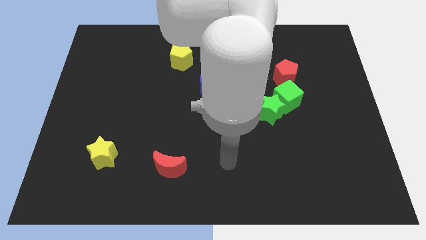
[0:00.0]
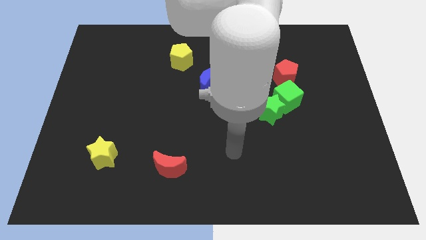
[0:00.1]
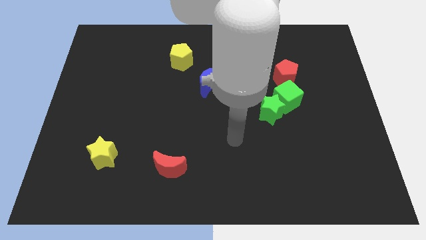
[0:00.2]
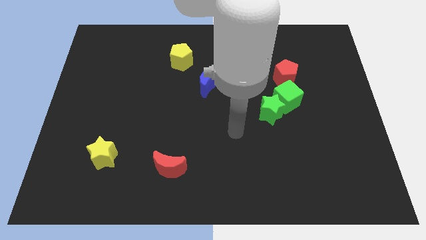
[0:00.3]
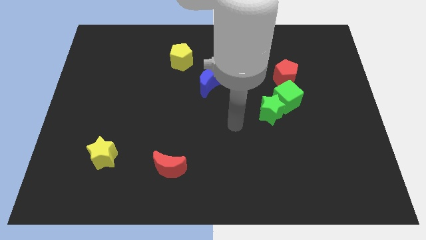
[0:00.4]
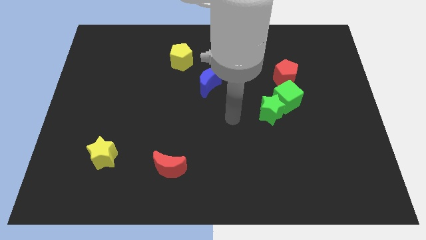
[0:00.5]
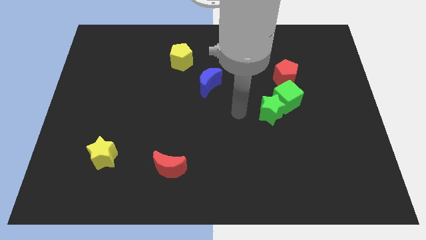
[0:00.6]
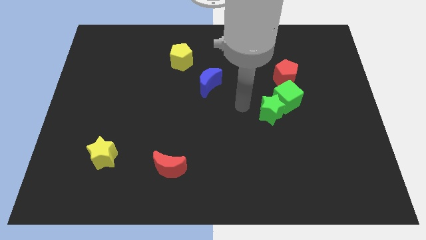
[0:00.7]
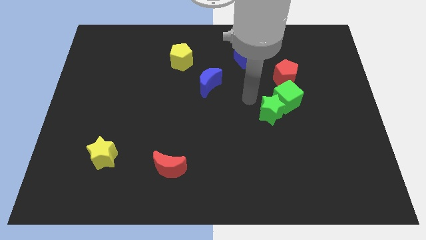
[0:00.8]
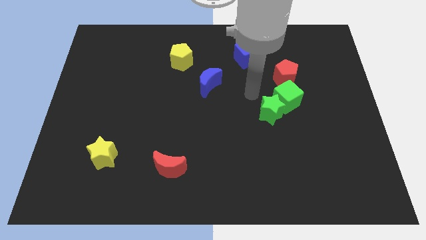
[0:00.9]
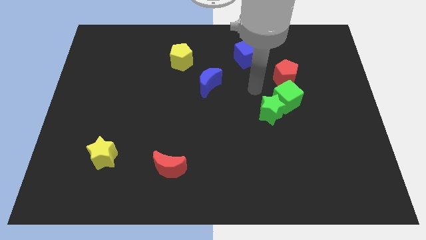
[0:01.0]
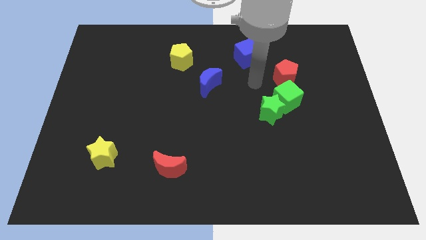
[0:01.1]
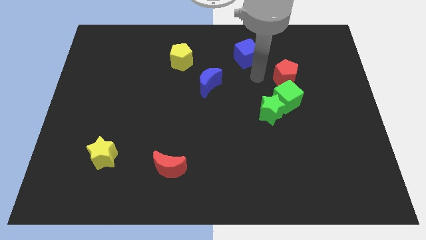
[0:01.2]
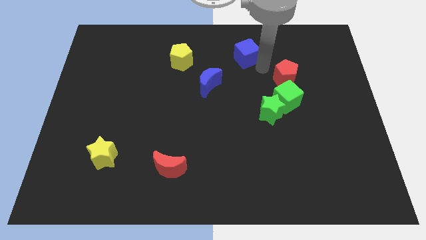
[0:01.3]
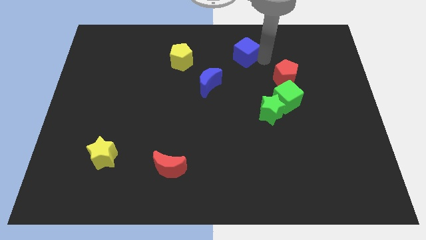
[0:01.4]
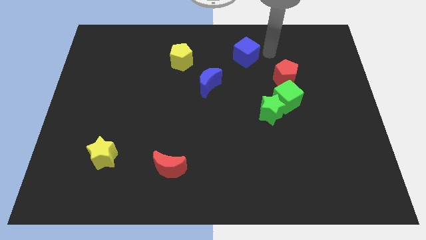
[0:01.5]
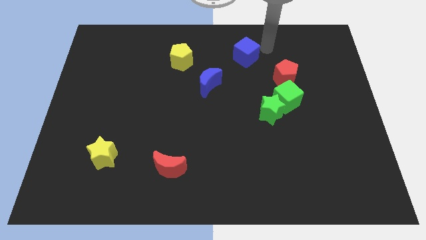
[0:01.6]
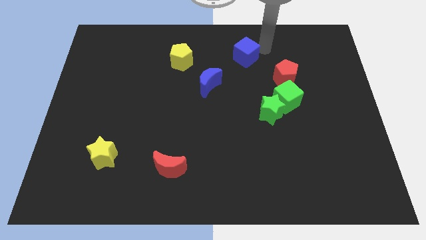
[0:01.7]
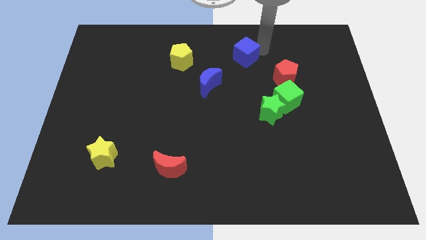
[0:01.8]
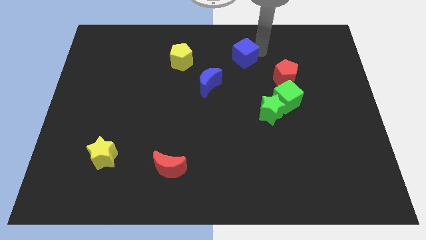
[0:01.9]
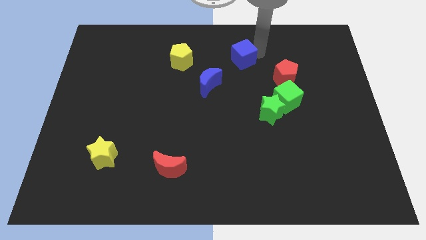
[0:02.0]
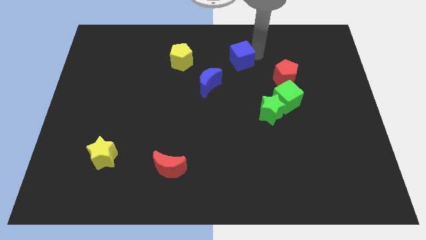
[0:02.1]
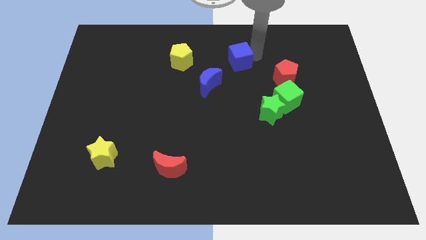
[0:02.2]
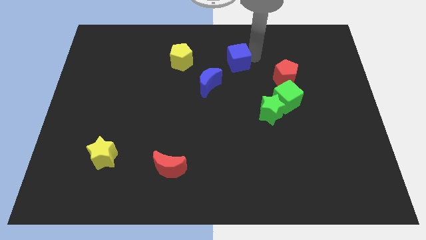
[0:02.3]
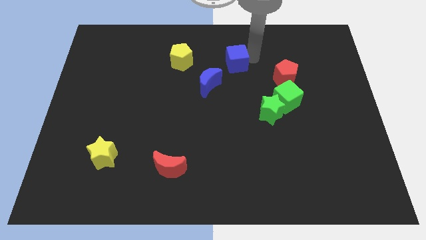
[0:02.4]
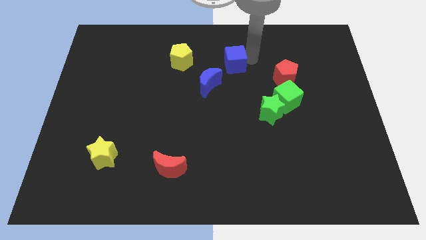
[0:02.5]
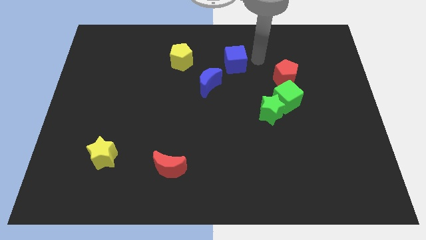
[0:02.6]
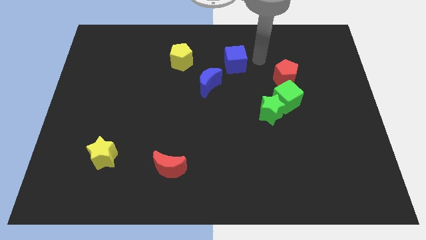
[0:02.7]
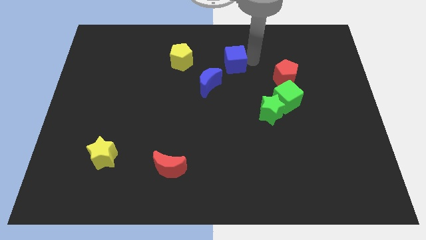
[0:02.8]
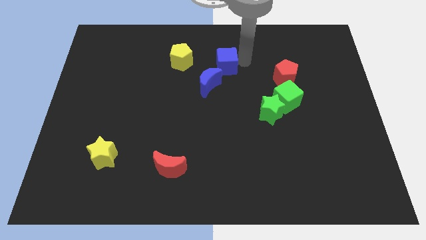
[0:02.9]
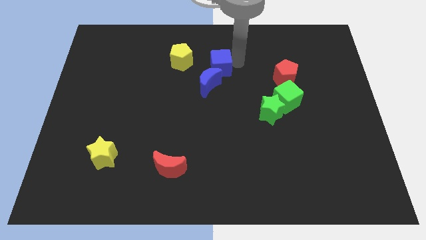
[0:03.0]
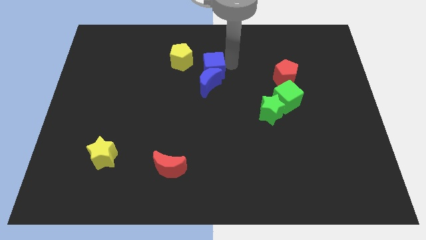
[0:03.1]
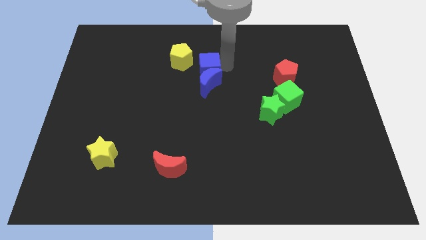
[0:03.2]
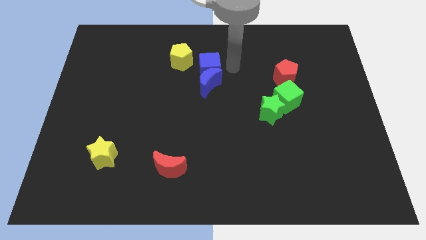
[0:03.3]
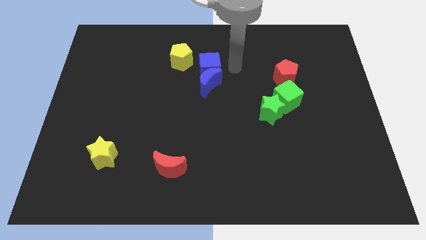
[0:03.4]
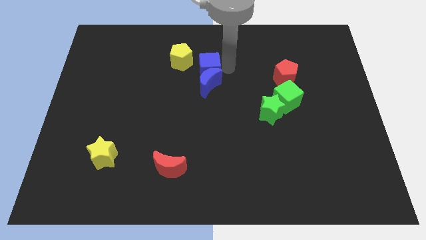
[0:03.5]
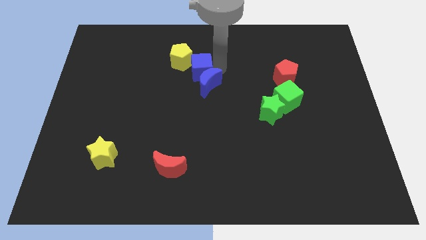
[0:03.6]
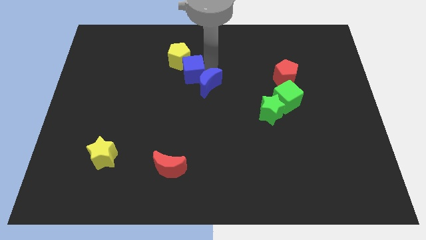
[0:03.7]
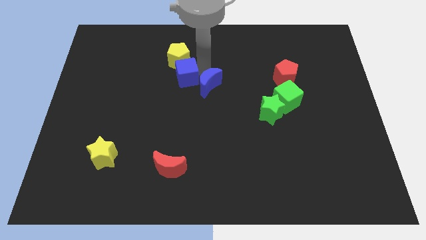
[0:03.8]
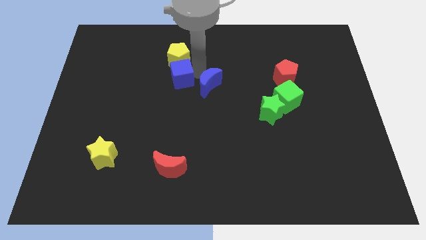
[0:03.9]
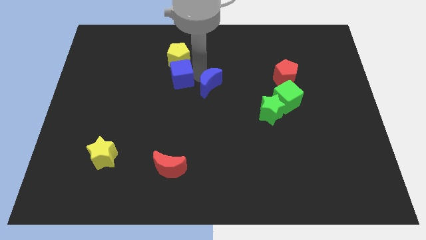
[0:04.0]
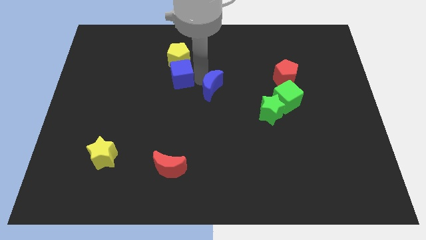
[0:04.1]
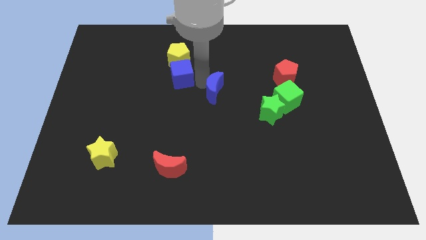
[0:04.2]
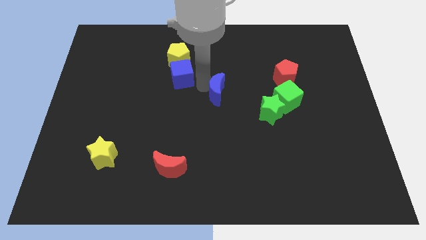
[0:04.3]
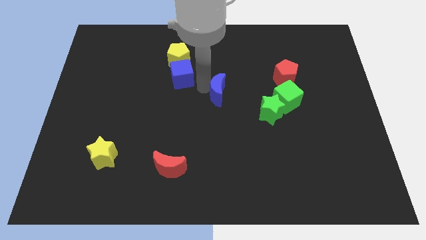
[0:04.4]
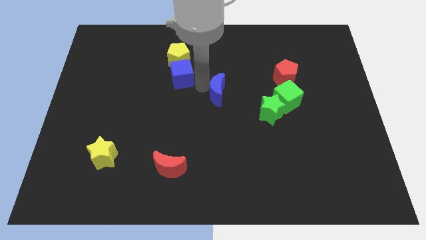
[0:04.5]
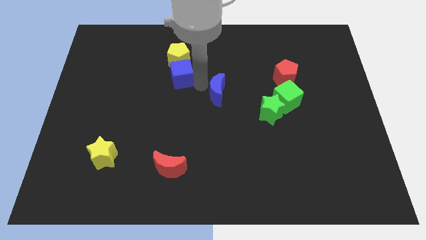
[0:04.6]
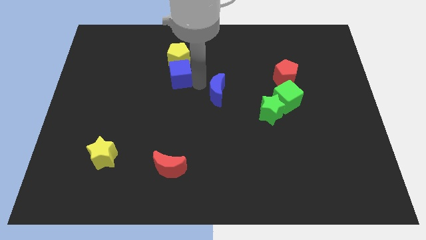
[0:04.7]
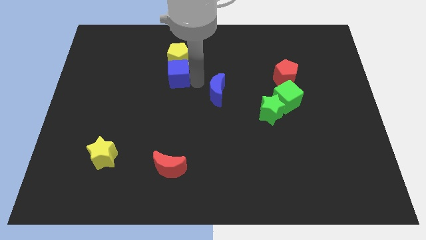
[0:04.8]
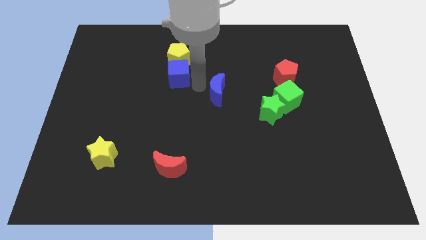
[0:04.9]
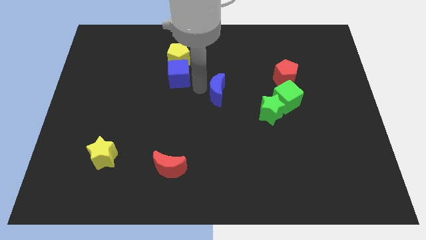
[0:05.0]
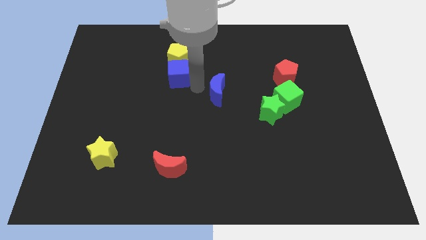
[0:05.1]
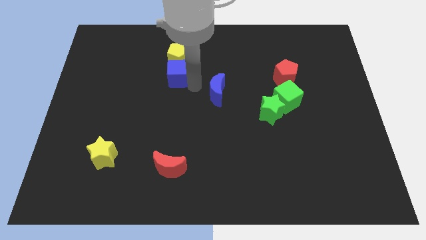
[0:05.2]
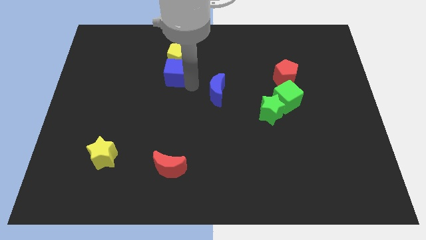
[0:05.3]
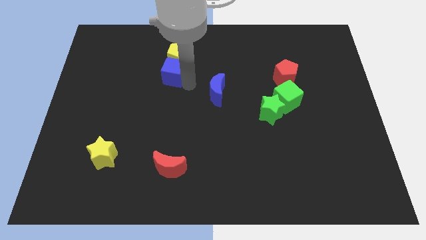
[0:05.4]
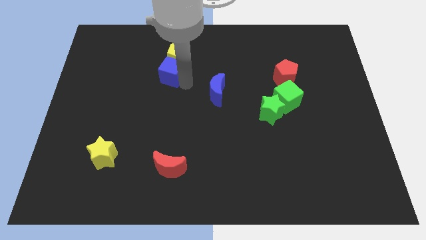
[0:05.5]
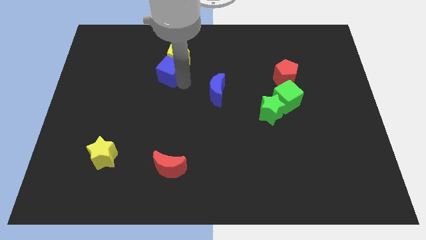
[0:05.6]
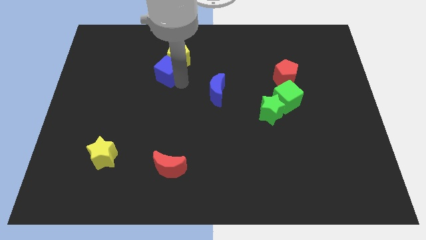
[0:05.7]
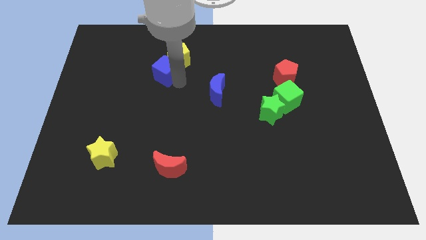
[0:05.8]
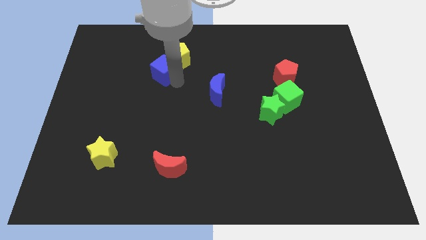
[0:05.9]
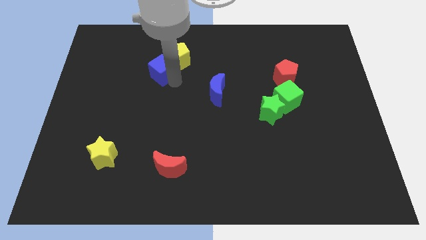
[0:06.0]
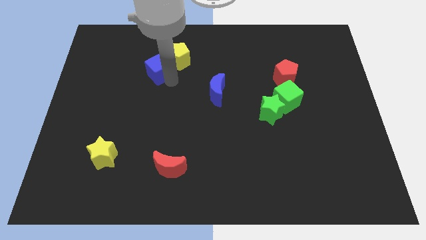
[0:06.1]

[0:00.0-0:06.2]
move the blue cube left of the yellow pentagon

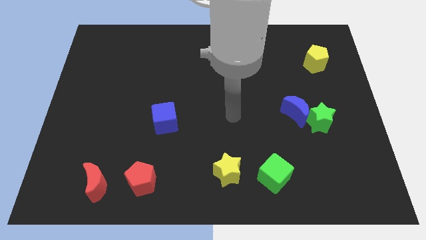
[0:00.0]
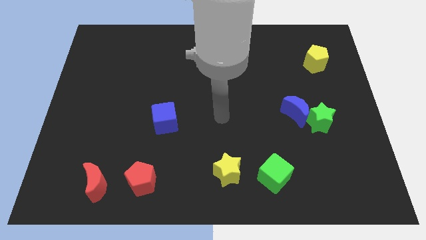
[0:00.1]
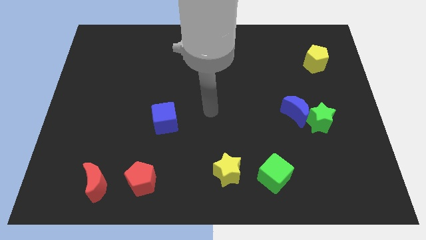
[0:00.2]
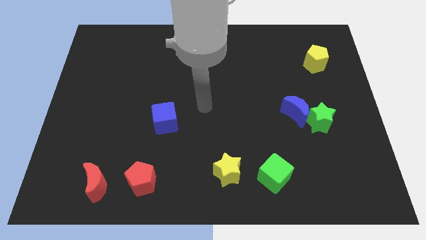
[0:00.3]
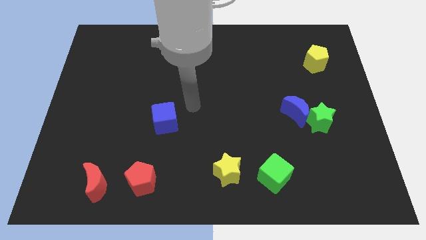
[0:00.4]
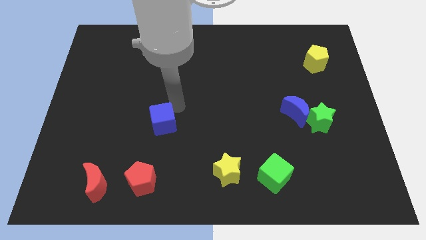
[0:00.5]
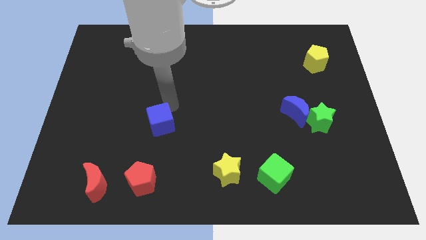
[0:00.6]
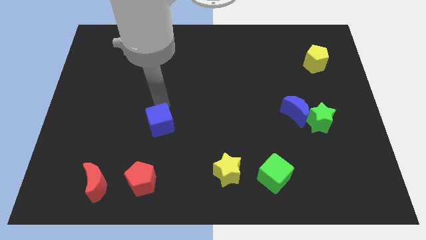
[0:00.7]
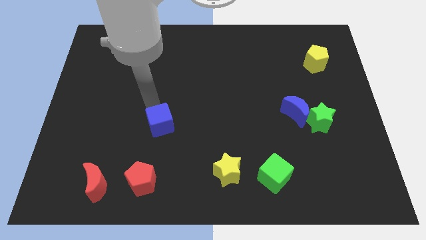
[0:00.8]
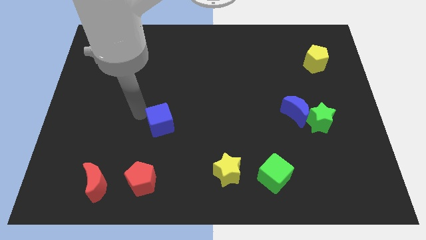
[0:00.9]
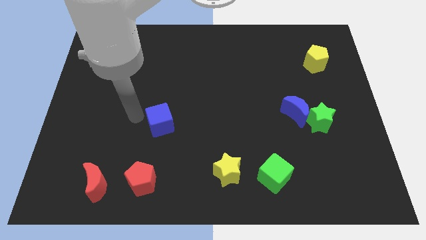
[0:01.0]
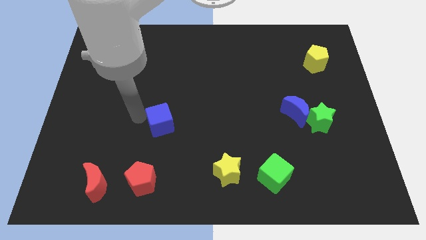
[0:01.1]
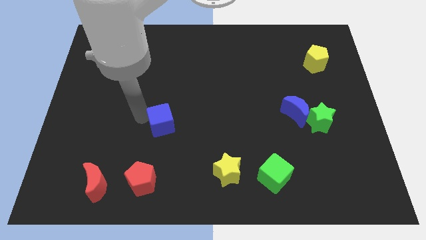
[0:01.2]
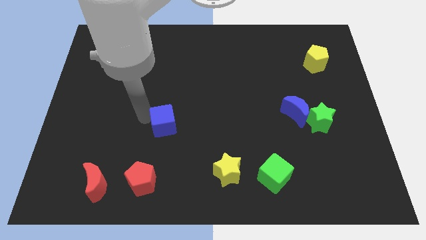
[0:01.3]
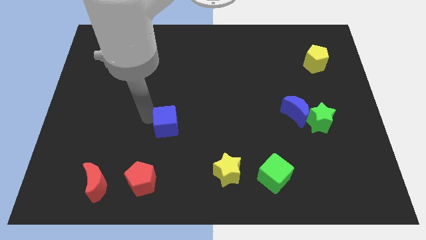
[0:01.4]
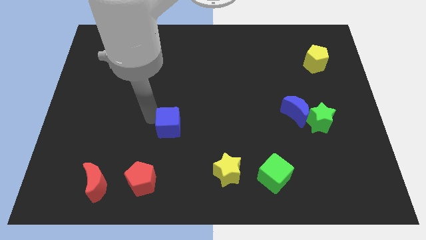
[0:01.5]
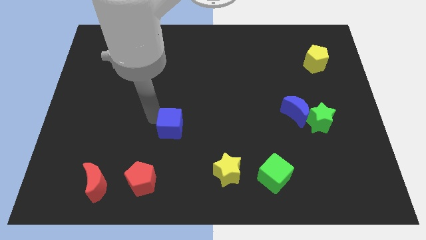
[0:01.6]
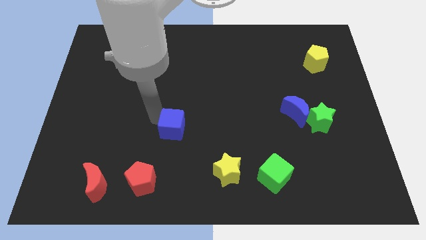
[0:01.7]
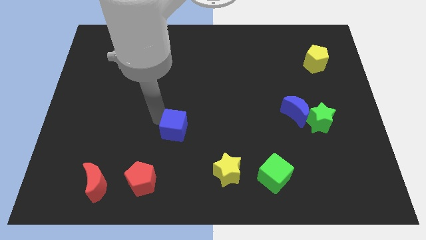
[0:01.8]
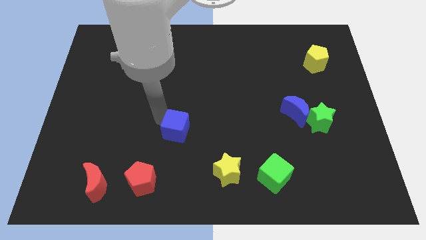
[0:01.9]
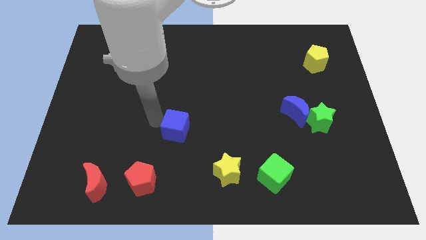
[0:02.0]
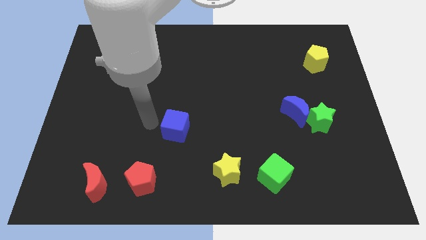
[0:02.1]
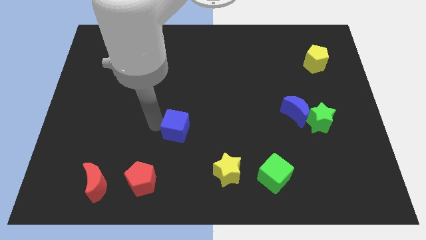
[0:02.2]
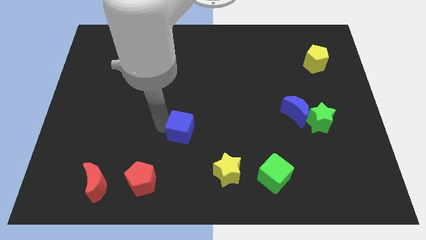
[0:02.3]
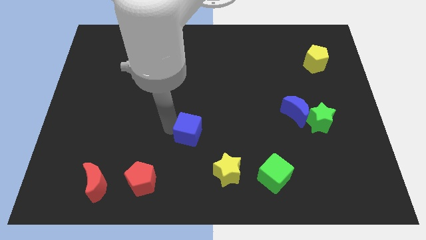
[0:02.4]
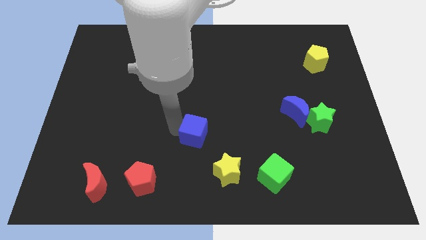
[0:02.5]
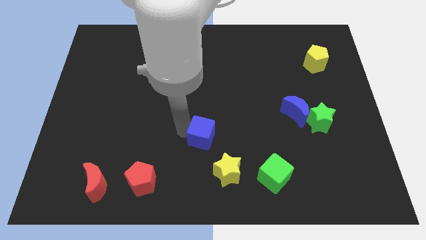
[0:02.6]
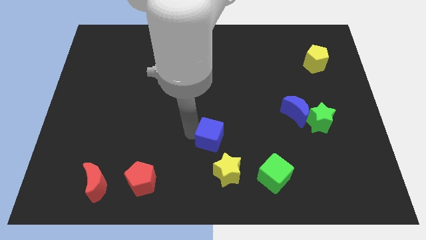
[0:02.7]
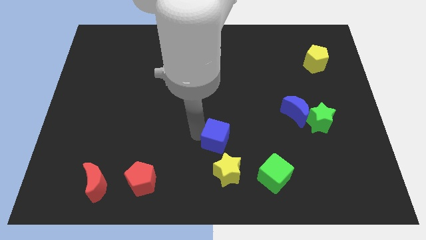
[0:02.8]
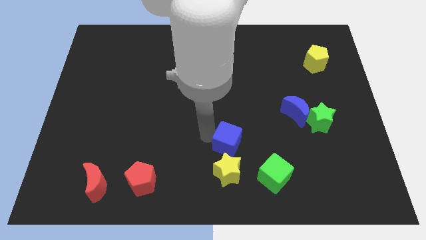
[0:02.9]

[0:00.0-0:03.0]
move the blue cube to the top left of the green cube
